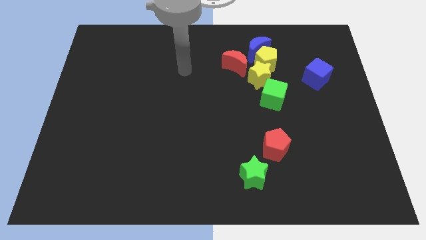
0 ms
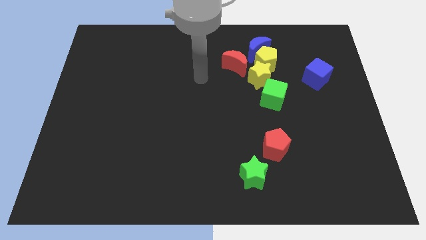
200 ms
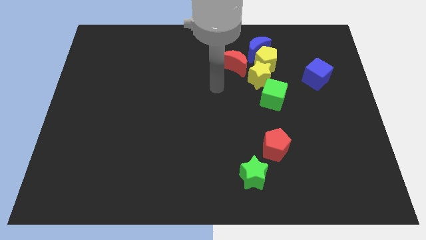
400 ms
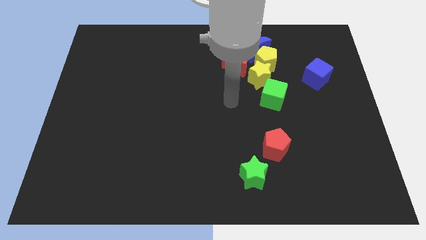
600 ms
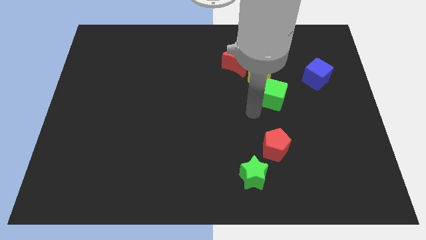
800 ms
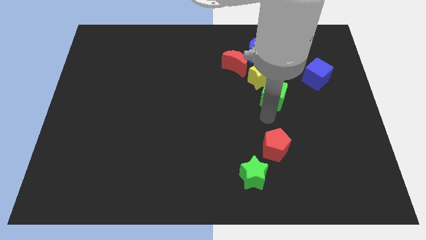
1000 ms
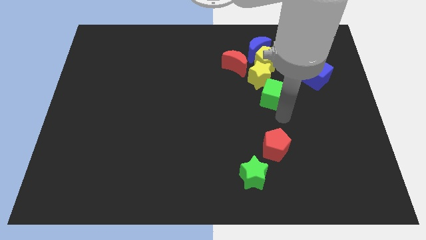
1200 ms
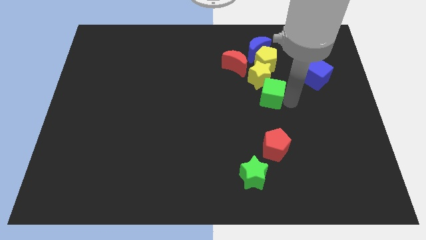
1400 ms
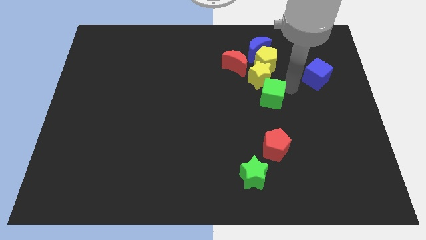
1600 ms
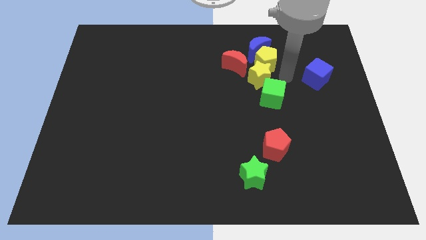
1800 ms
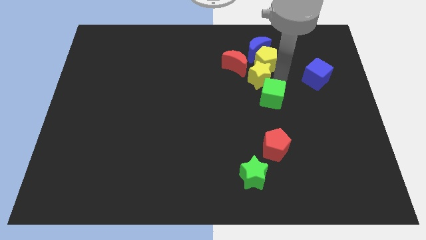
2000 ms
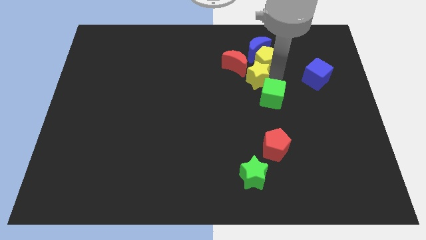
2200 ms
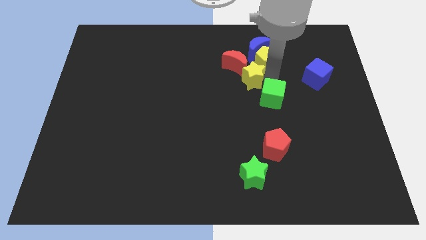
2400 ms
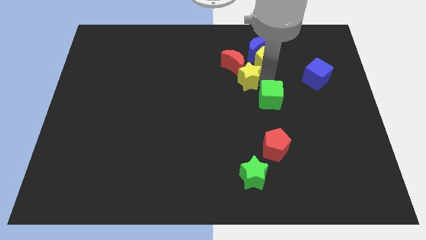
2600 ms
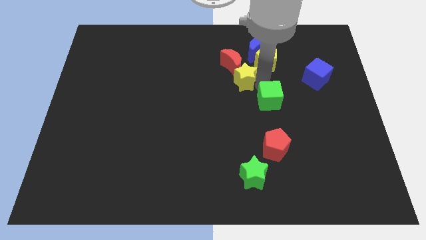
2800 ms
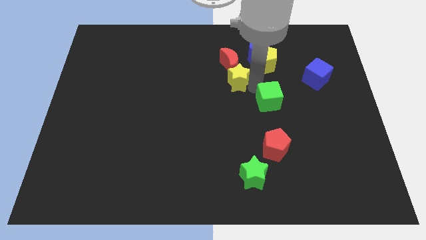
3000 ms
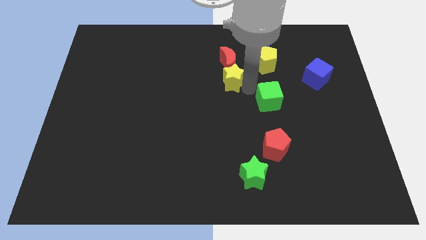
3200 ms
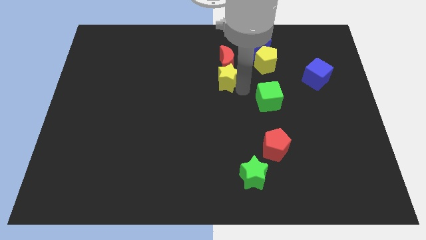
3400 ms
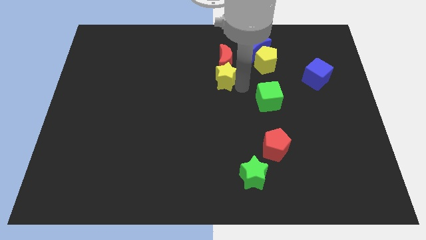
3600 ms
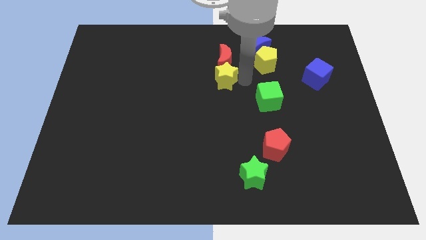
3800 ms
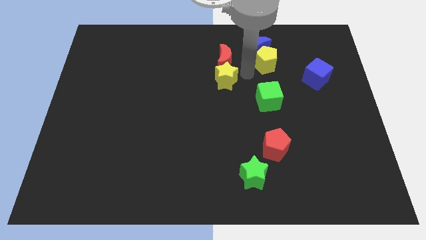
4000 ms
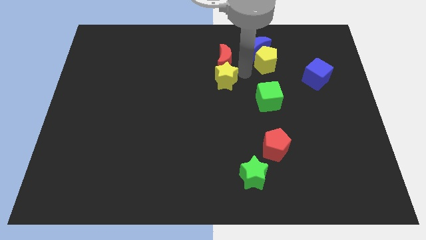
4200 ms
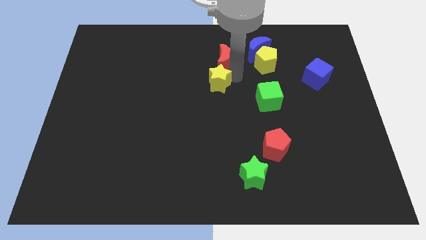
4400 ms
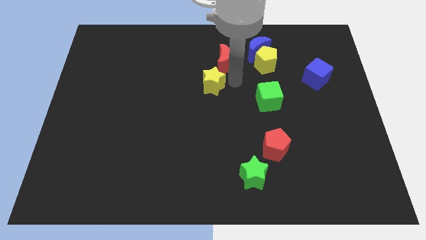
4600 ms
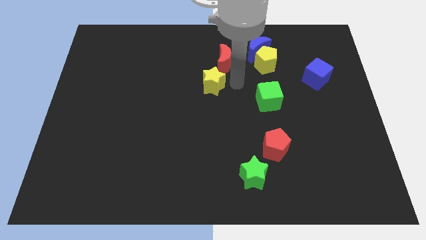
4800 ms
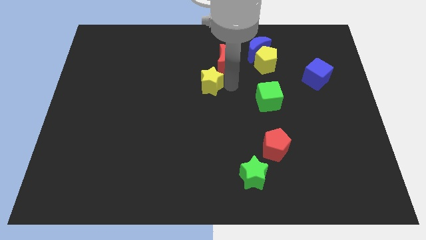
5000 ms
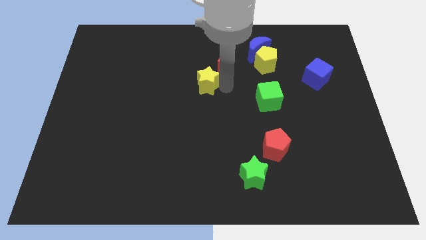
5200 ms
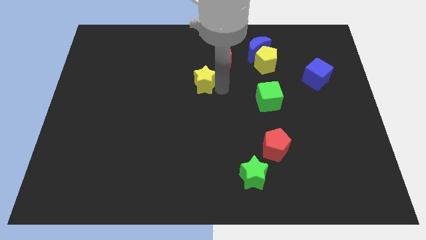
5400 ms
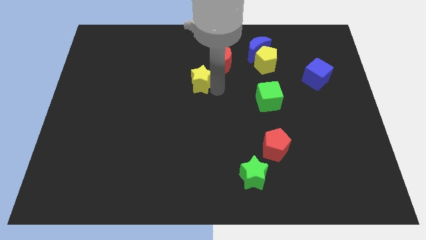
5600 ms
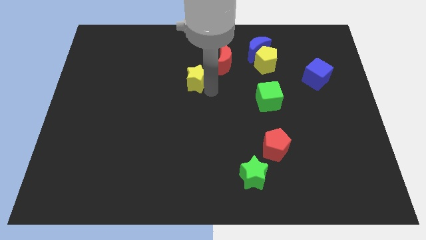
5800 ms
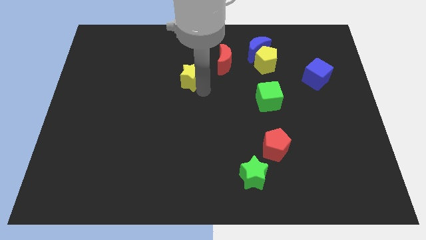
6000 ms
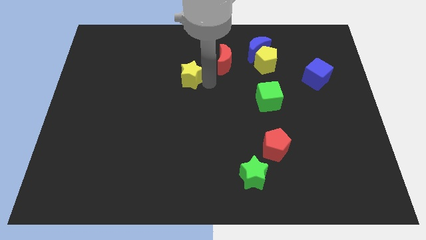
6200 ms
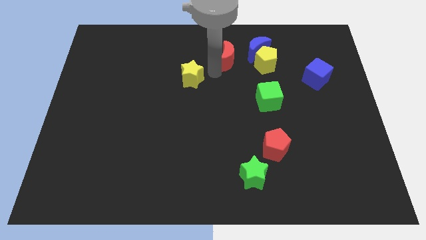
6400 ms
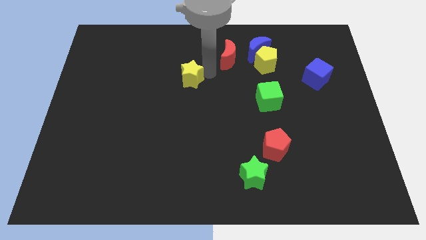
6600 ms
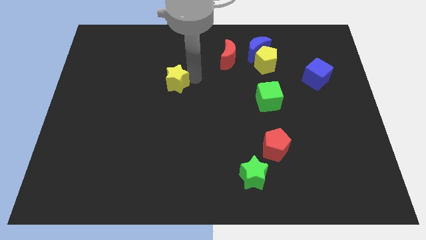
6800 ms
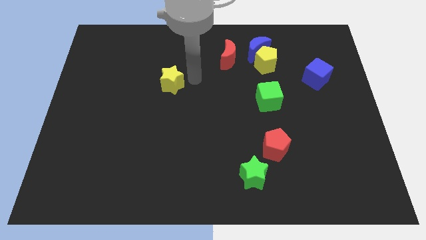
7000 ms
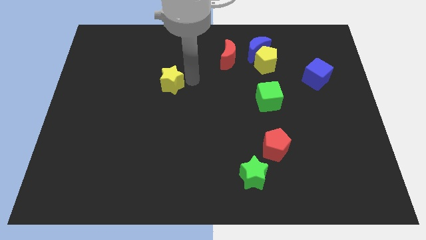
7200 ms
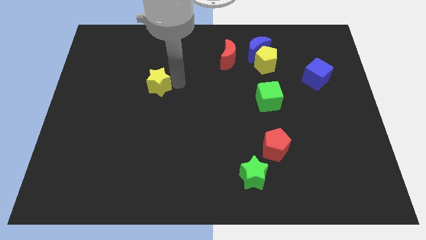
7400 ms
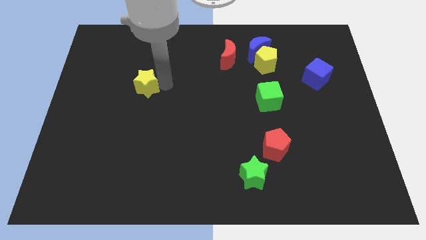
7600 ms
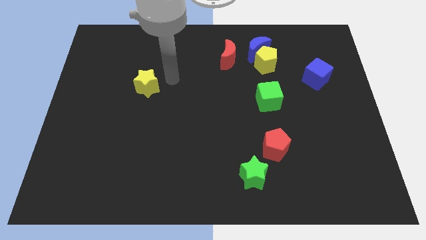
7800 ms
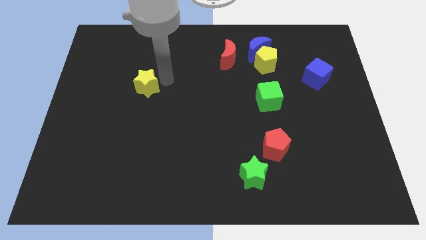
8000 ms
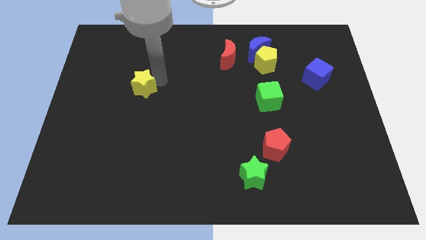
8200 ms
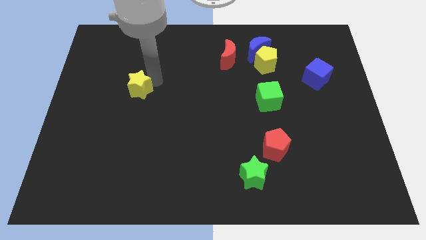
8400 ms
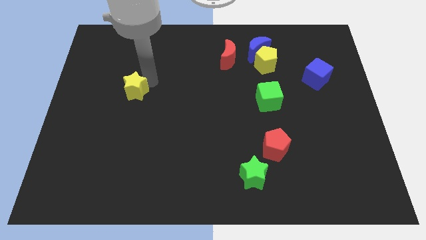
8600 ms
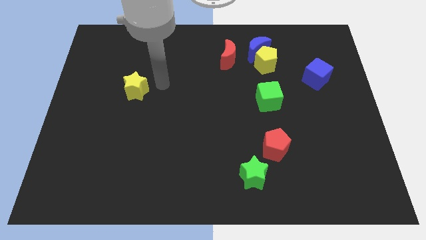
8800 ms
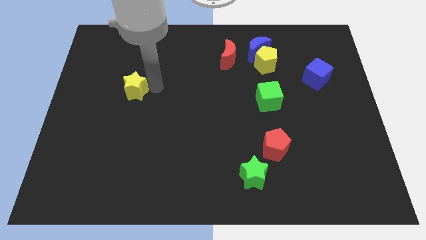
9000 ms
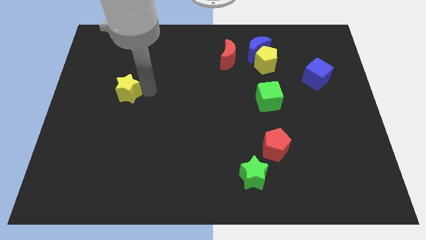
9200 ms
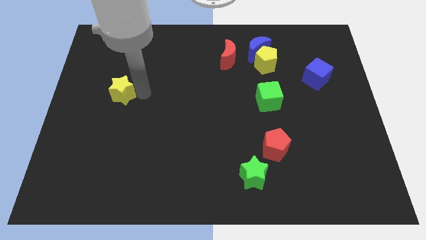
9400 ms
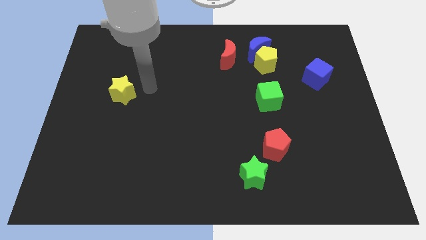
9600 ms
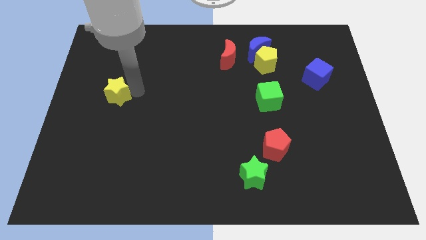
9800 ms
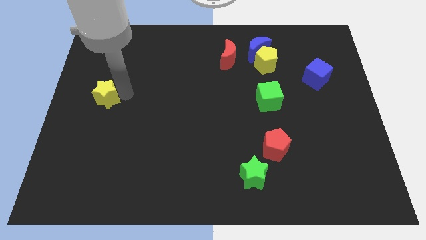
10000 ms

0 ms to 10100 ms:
push the yellow star to the center left

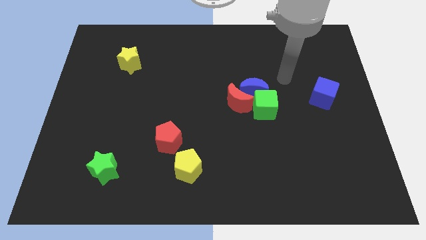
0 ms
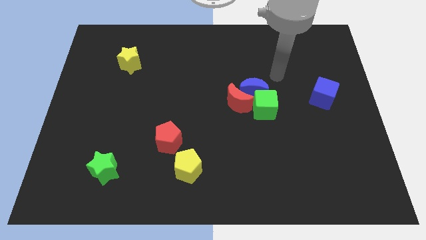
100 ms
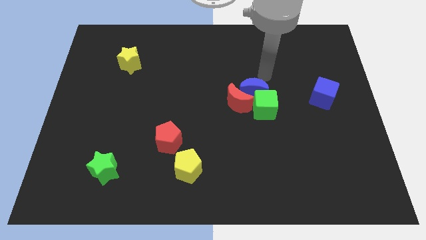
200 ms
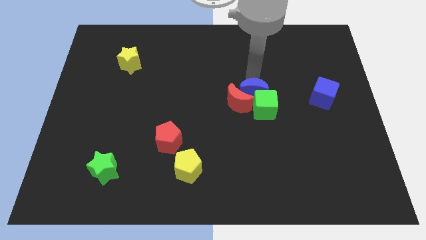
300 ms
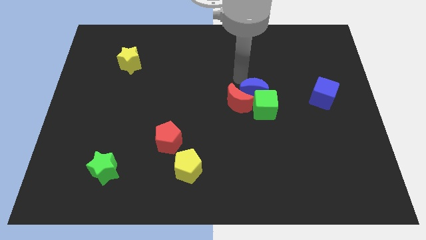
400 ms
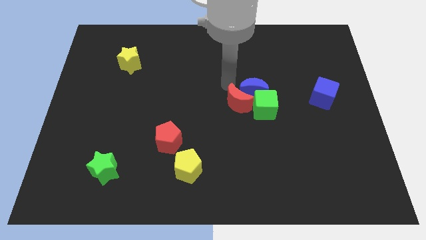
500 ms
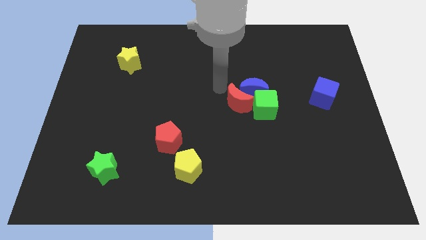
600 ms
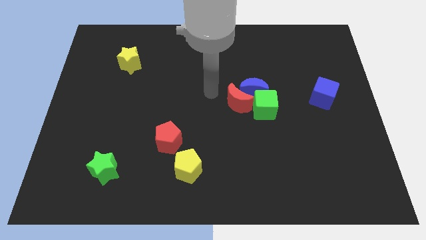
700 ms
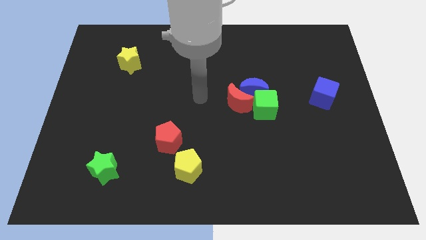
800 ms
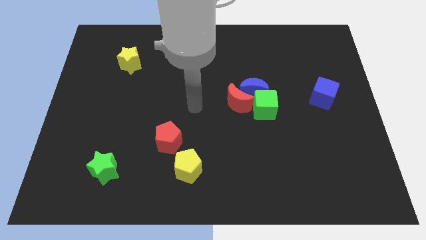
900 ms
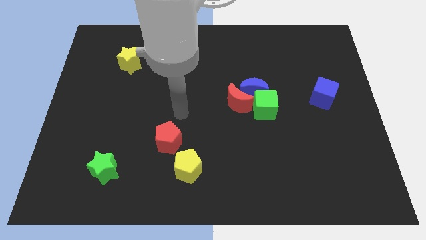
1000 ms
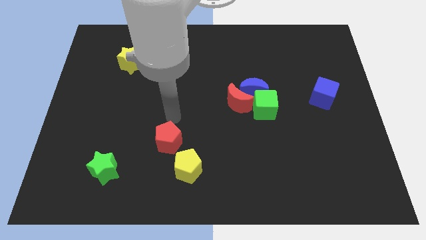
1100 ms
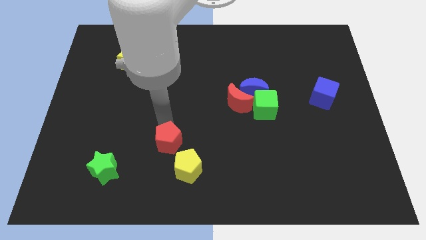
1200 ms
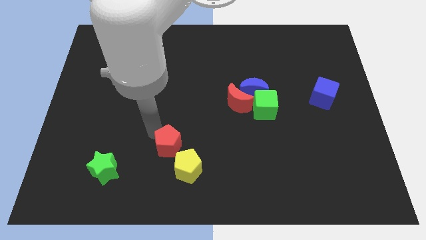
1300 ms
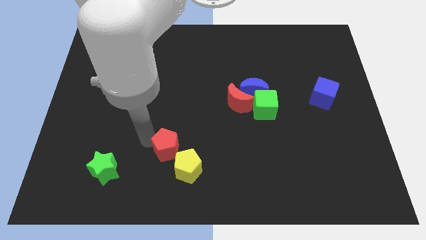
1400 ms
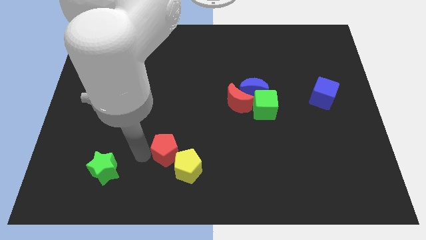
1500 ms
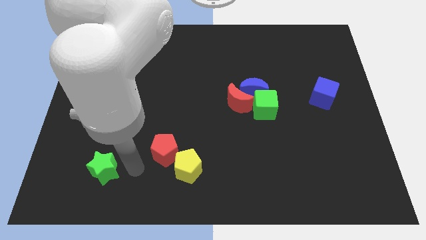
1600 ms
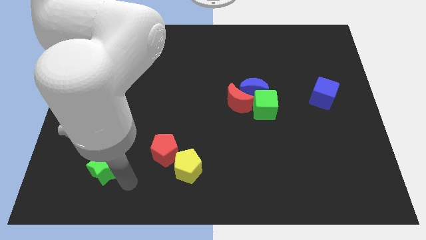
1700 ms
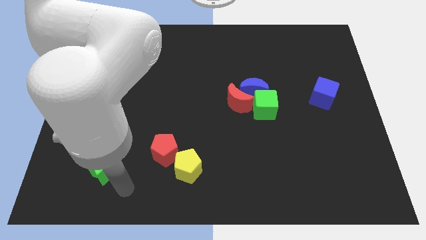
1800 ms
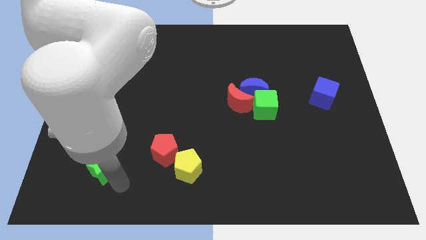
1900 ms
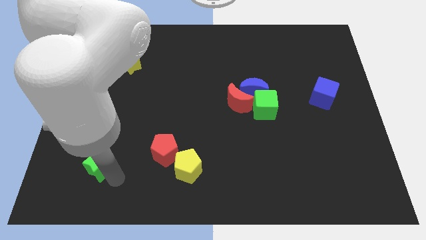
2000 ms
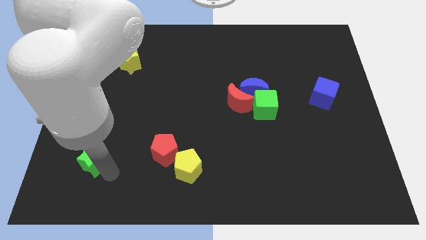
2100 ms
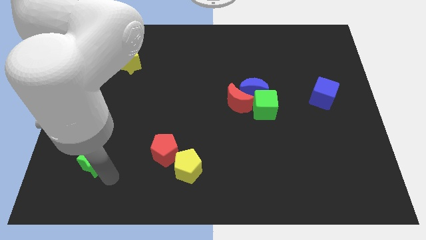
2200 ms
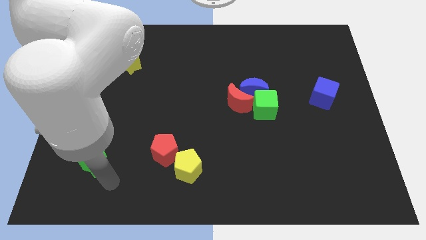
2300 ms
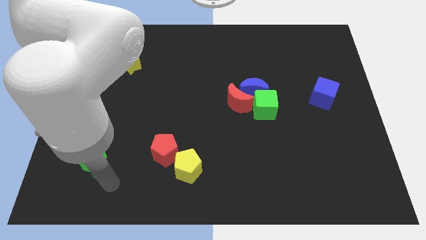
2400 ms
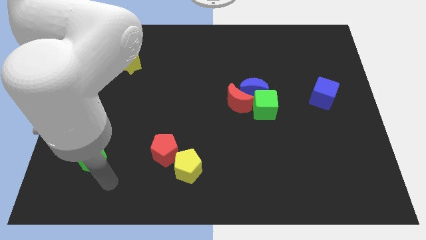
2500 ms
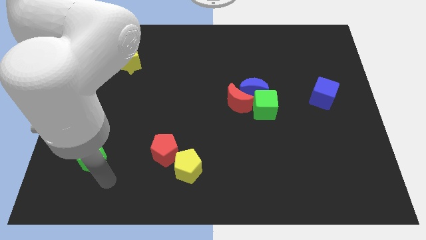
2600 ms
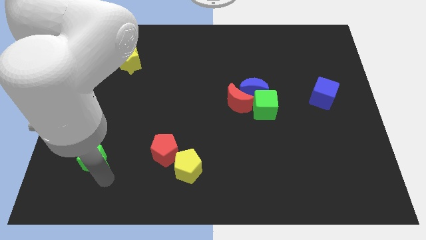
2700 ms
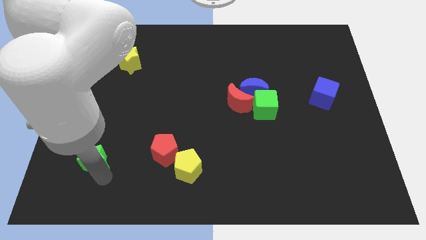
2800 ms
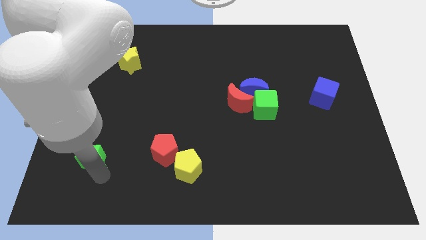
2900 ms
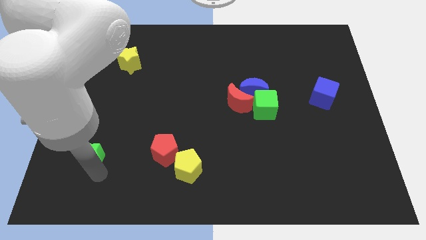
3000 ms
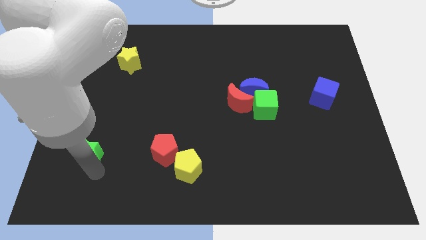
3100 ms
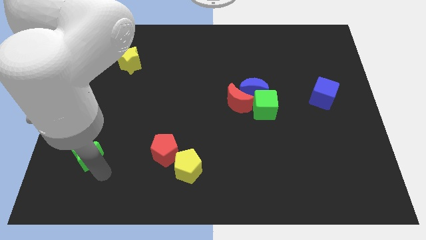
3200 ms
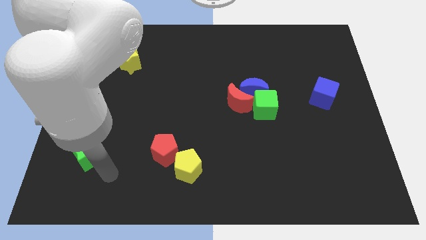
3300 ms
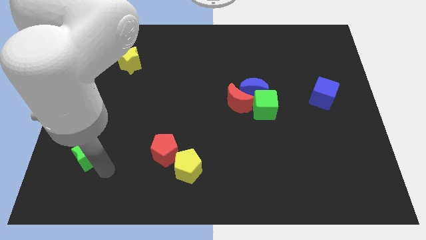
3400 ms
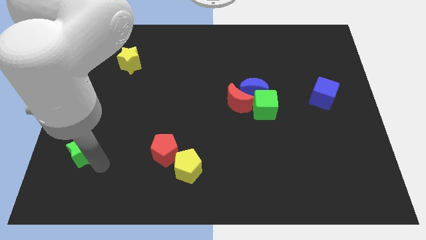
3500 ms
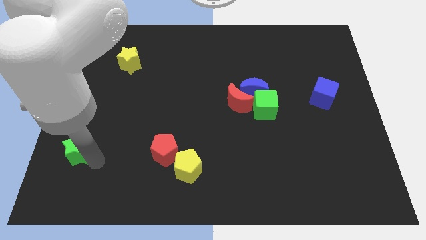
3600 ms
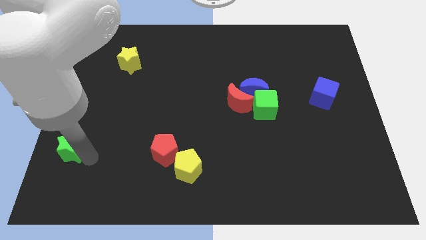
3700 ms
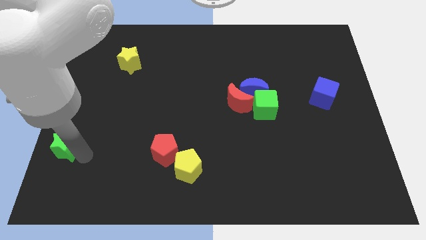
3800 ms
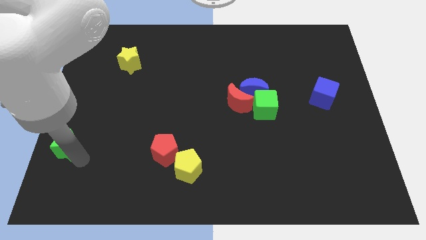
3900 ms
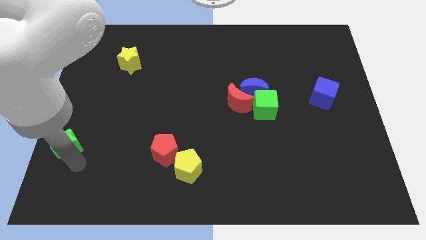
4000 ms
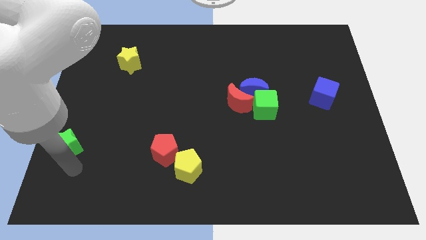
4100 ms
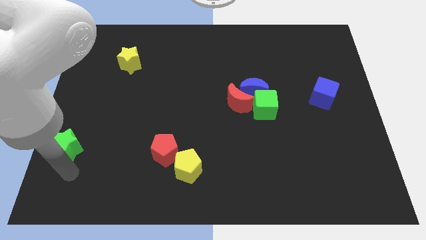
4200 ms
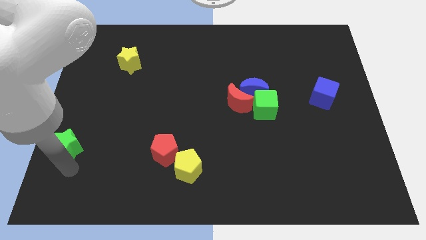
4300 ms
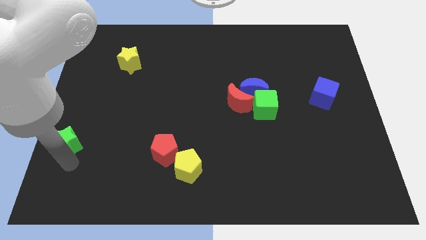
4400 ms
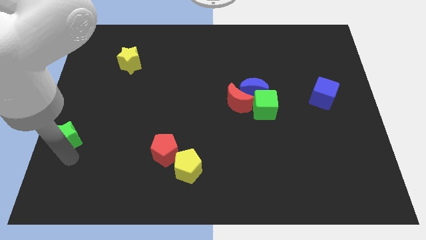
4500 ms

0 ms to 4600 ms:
slide the green star to the center left
